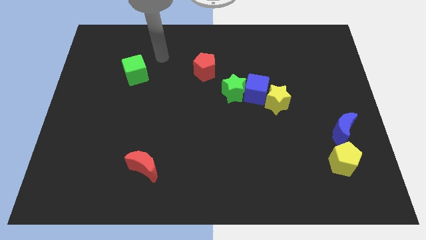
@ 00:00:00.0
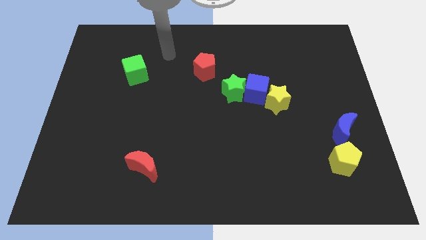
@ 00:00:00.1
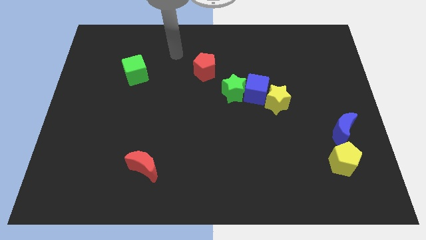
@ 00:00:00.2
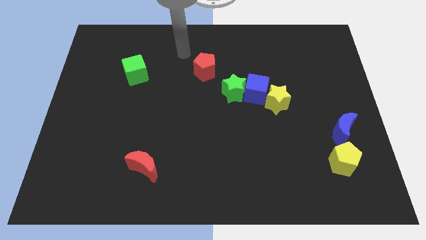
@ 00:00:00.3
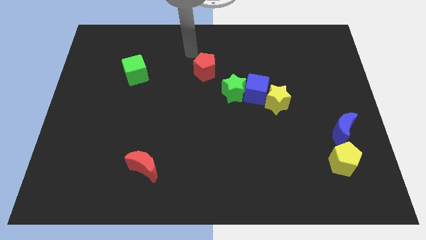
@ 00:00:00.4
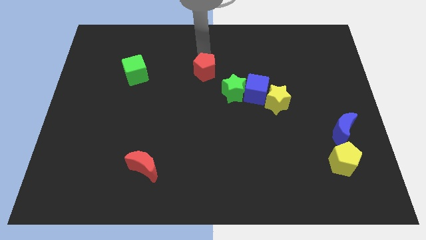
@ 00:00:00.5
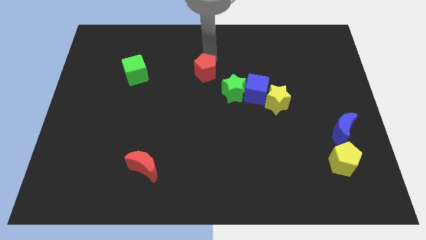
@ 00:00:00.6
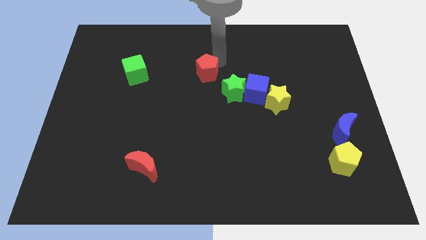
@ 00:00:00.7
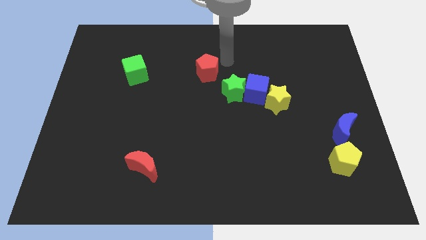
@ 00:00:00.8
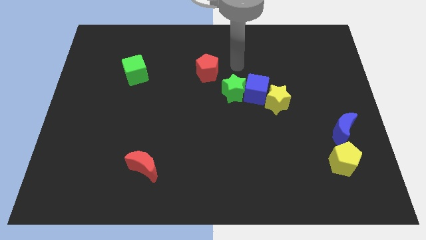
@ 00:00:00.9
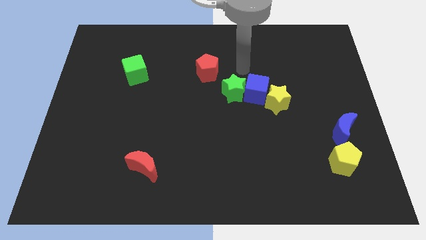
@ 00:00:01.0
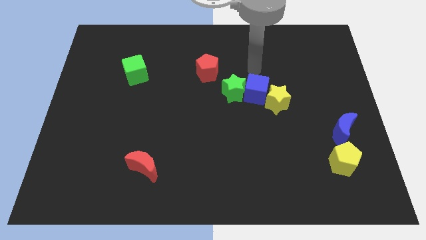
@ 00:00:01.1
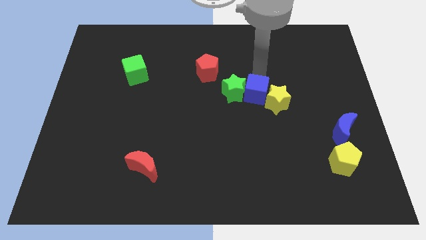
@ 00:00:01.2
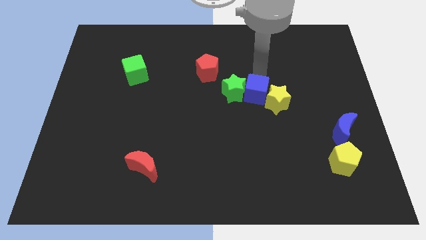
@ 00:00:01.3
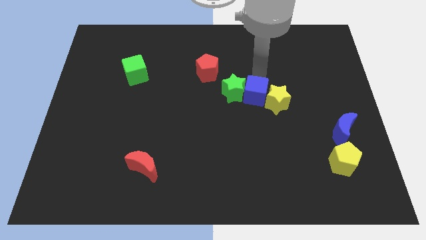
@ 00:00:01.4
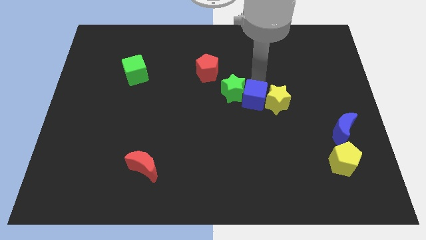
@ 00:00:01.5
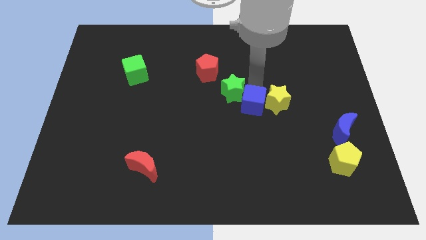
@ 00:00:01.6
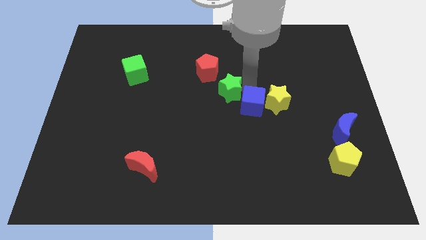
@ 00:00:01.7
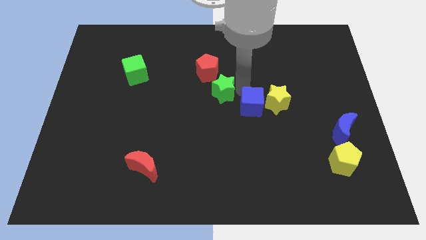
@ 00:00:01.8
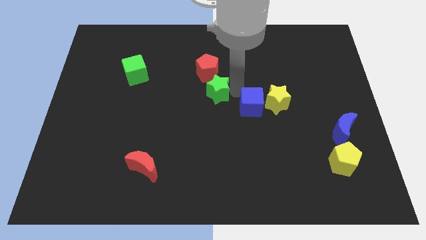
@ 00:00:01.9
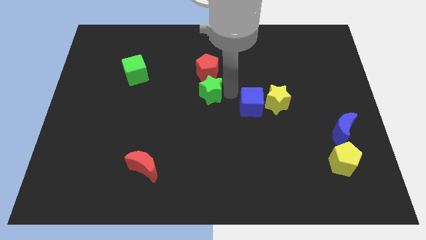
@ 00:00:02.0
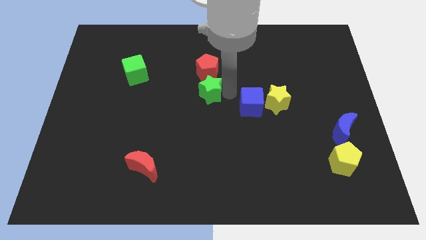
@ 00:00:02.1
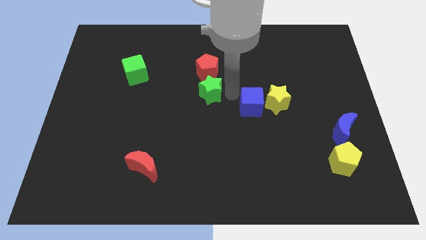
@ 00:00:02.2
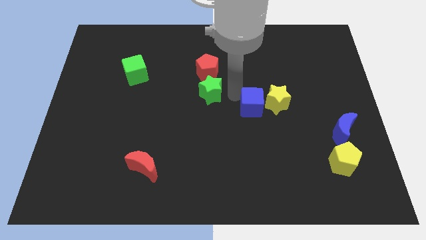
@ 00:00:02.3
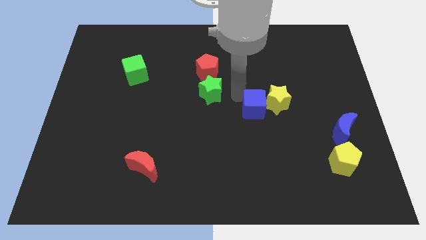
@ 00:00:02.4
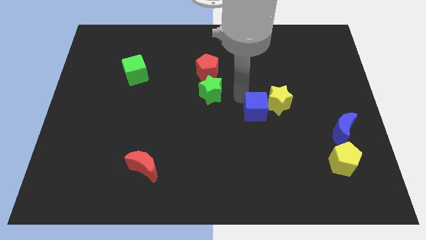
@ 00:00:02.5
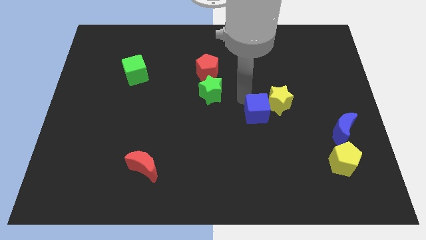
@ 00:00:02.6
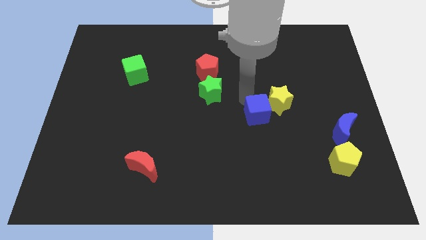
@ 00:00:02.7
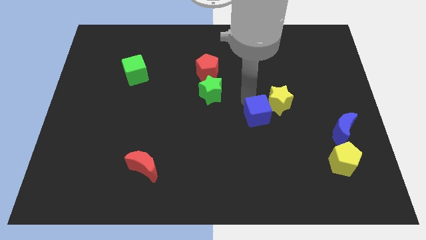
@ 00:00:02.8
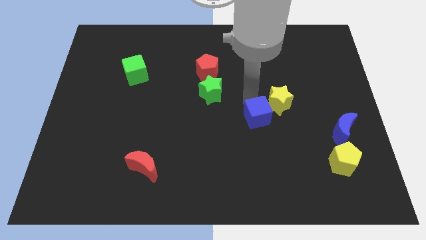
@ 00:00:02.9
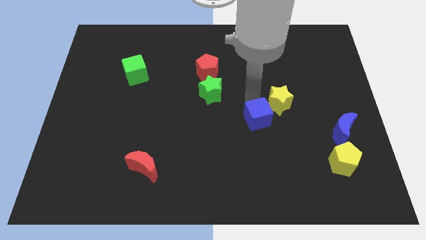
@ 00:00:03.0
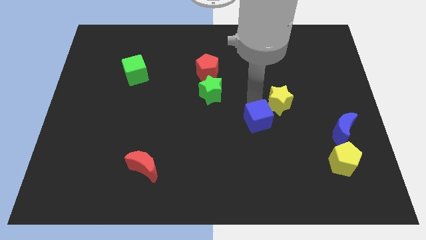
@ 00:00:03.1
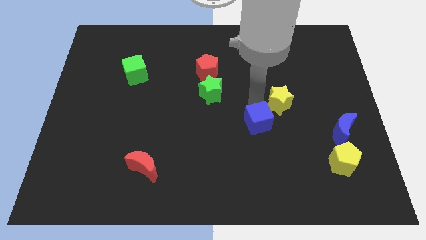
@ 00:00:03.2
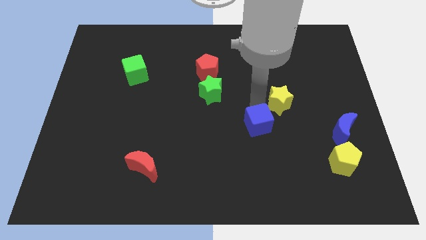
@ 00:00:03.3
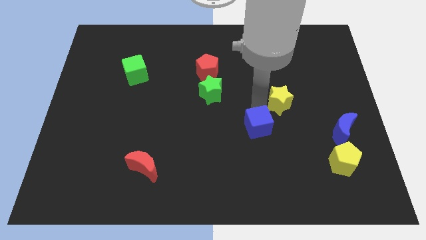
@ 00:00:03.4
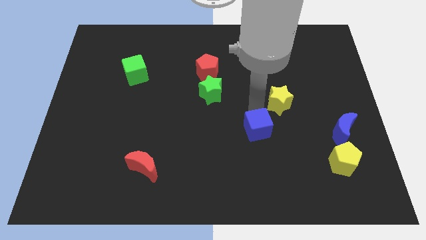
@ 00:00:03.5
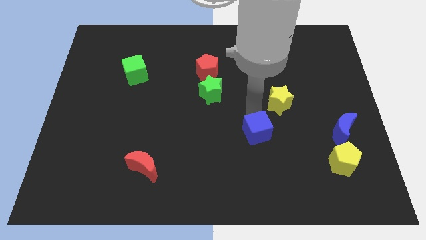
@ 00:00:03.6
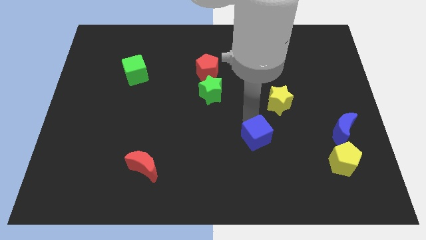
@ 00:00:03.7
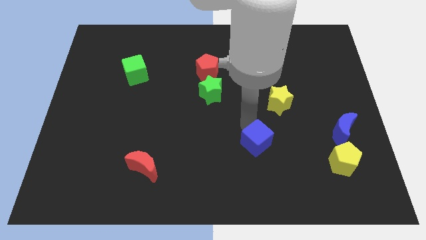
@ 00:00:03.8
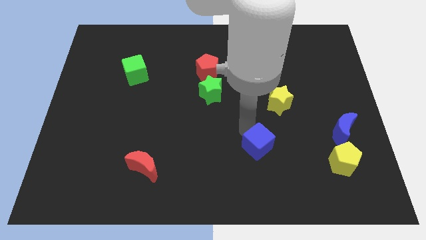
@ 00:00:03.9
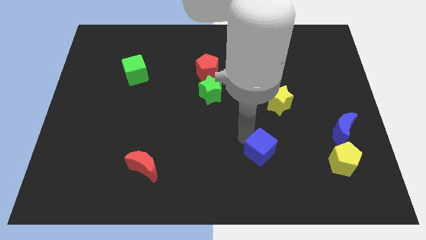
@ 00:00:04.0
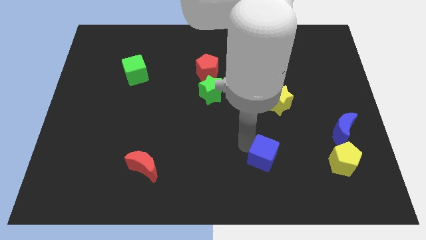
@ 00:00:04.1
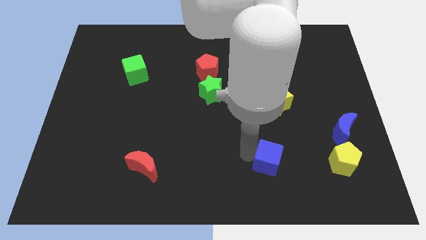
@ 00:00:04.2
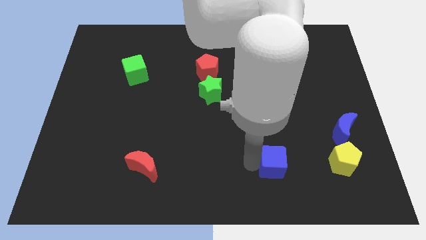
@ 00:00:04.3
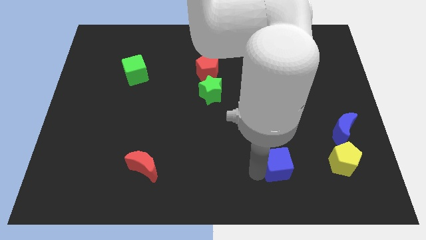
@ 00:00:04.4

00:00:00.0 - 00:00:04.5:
push the blue cube diagonally down and right a bit

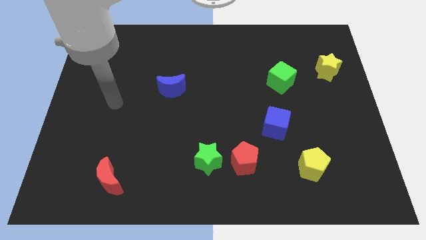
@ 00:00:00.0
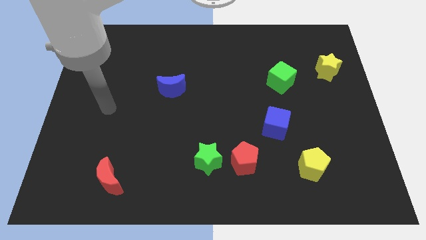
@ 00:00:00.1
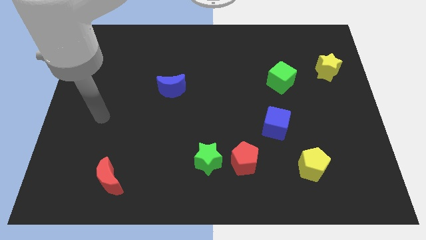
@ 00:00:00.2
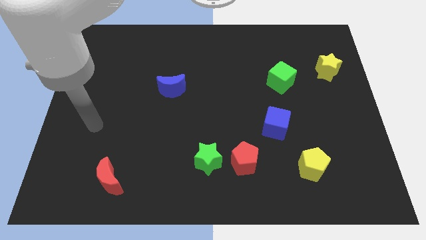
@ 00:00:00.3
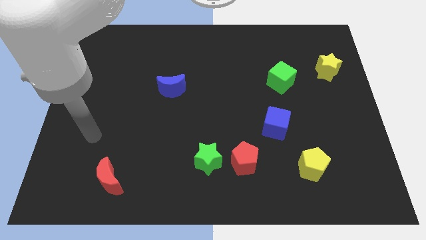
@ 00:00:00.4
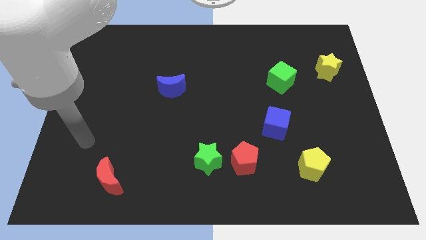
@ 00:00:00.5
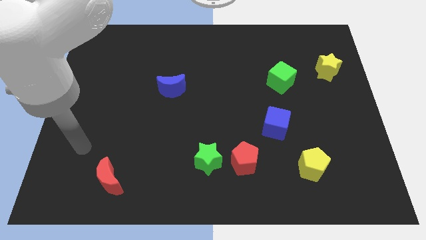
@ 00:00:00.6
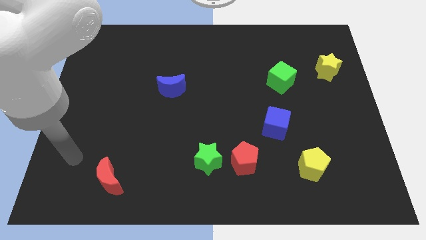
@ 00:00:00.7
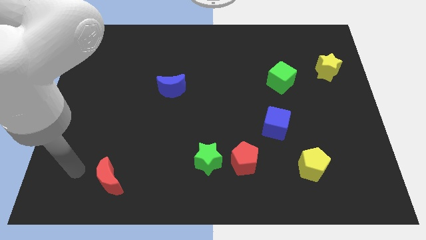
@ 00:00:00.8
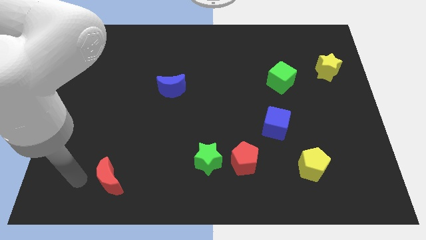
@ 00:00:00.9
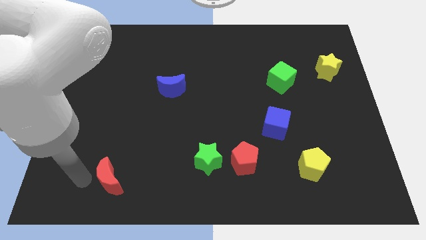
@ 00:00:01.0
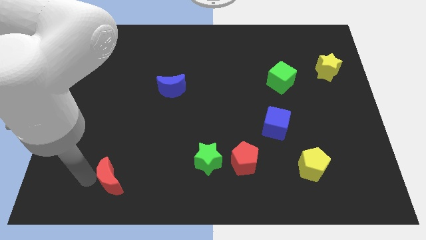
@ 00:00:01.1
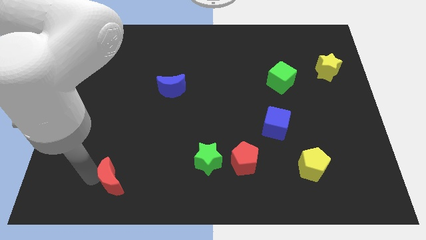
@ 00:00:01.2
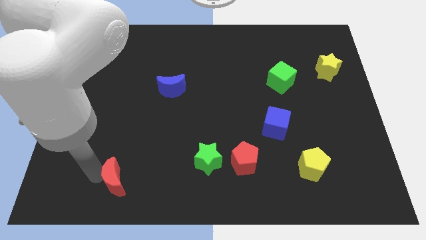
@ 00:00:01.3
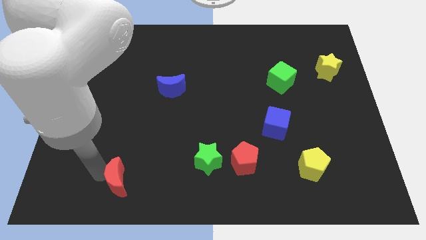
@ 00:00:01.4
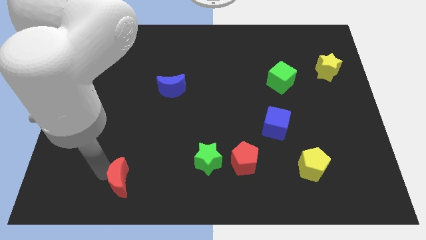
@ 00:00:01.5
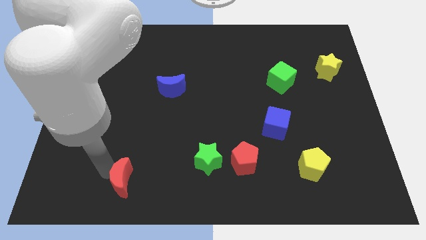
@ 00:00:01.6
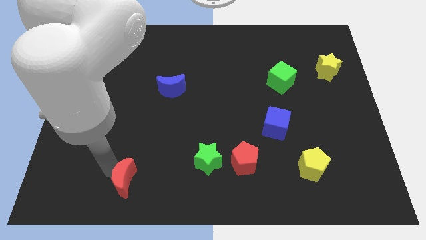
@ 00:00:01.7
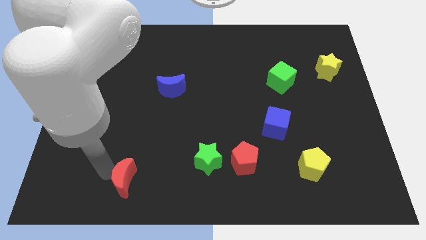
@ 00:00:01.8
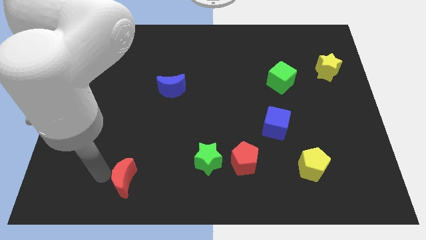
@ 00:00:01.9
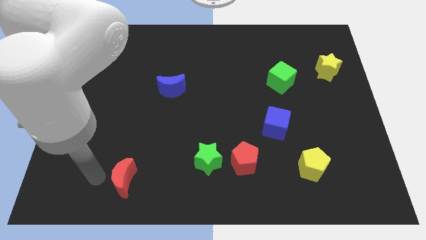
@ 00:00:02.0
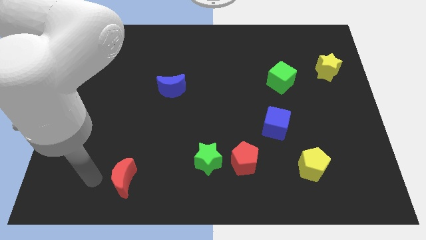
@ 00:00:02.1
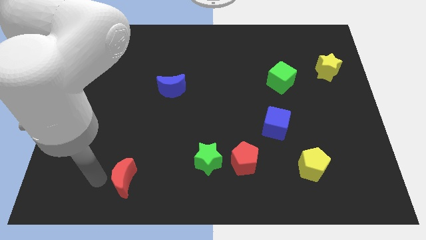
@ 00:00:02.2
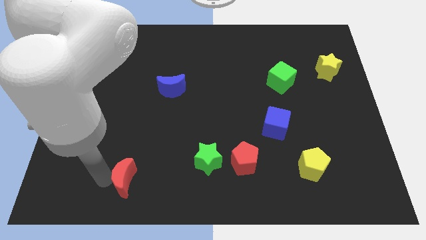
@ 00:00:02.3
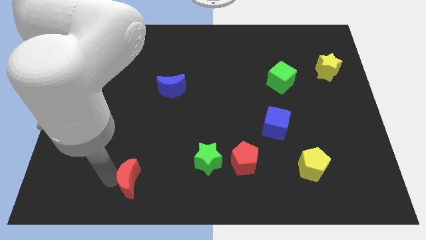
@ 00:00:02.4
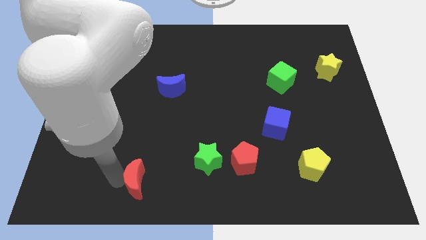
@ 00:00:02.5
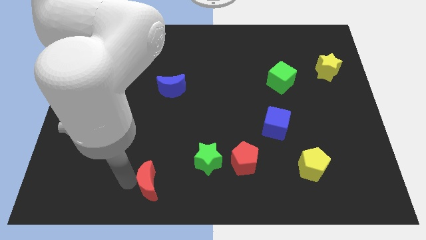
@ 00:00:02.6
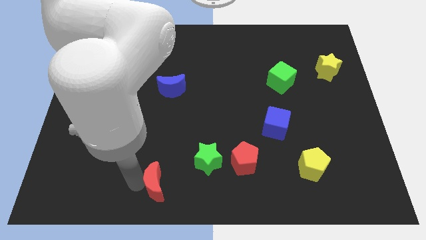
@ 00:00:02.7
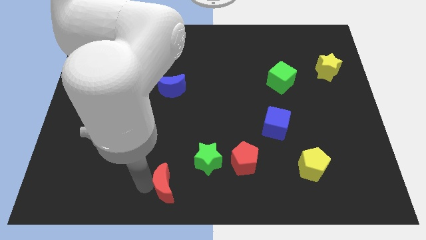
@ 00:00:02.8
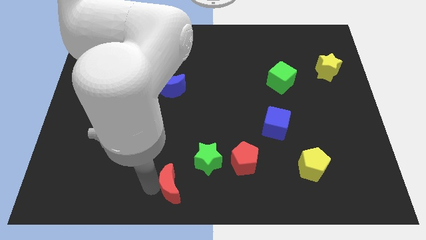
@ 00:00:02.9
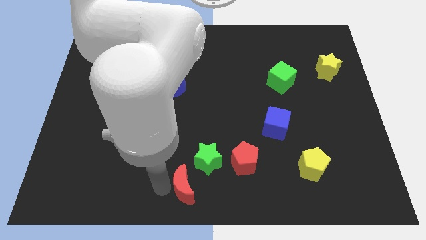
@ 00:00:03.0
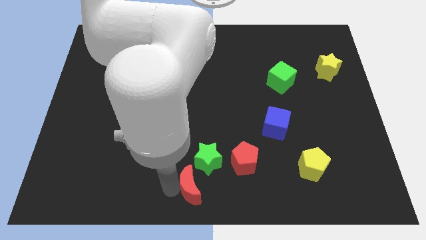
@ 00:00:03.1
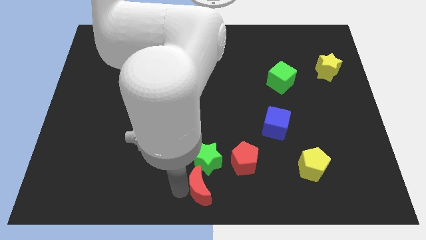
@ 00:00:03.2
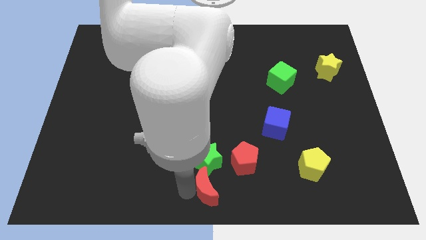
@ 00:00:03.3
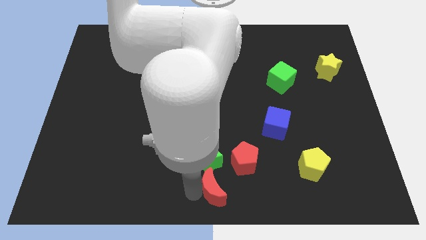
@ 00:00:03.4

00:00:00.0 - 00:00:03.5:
slide the red moon to the right
